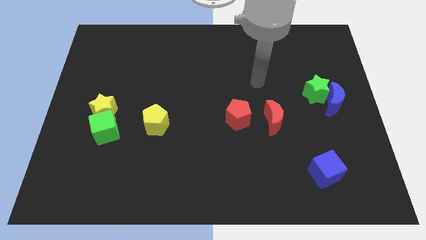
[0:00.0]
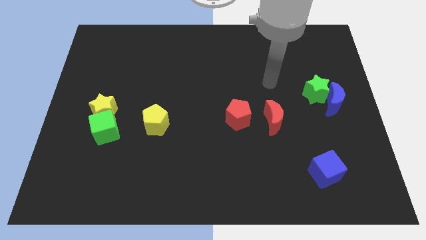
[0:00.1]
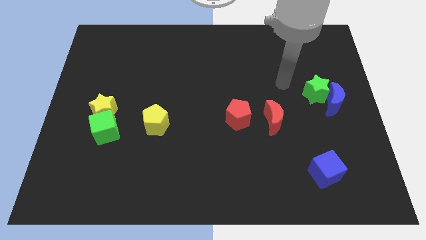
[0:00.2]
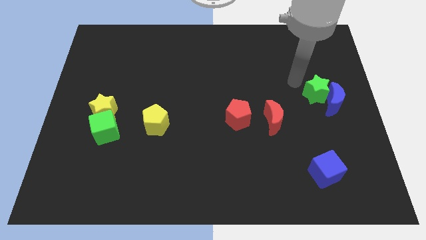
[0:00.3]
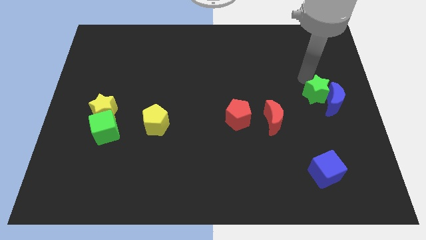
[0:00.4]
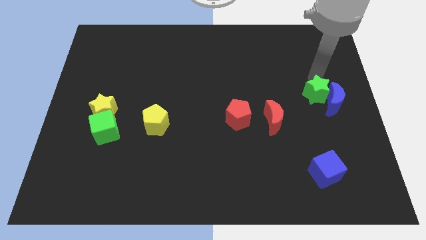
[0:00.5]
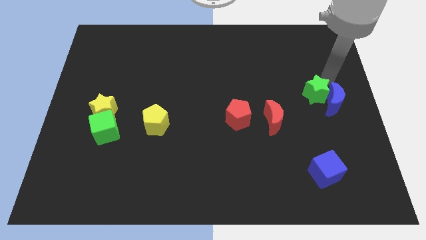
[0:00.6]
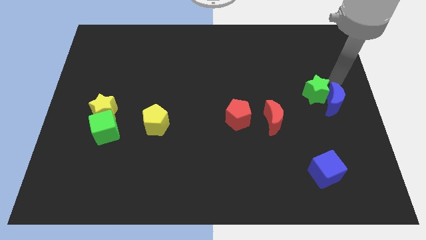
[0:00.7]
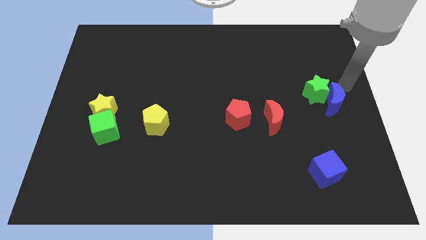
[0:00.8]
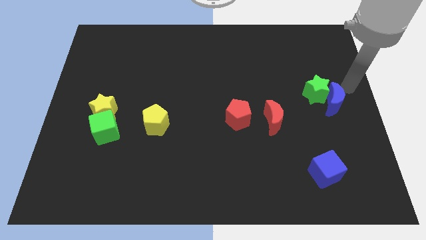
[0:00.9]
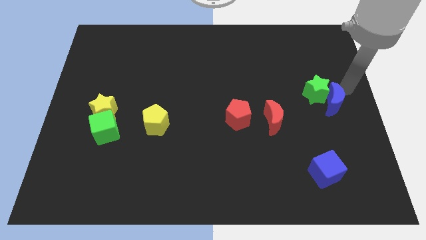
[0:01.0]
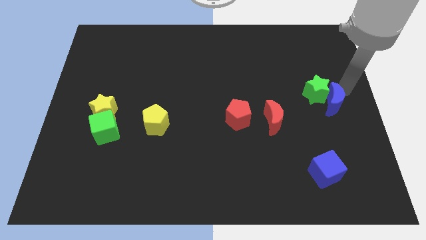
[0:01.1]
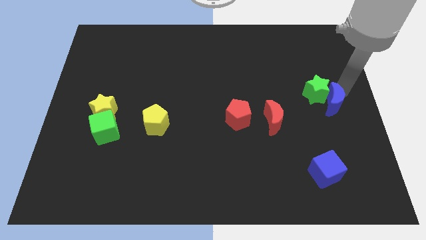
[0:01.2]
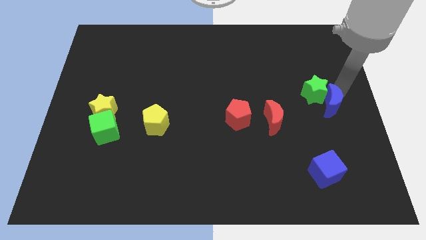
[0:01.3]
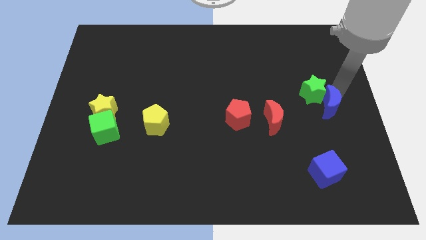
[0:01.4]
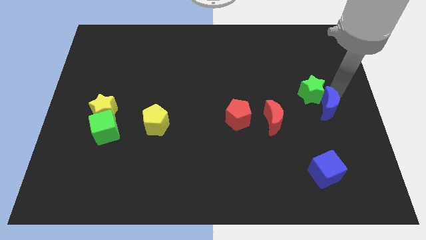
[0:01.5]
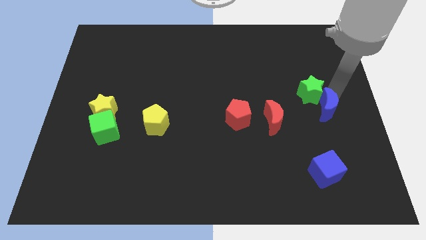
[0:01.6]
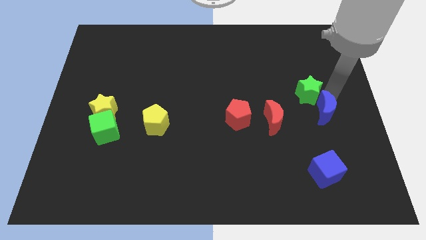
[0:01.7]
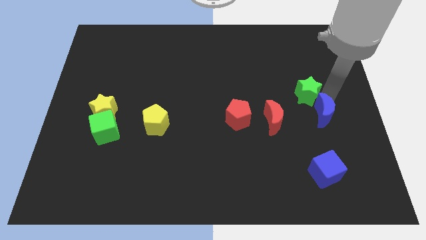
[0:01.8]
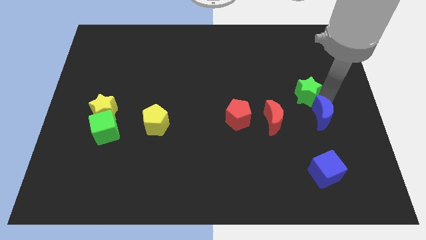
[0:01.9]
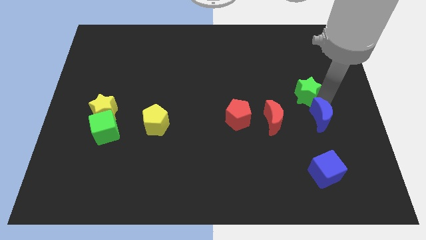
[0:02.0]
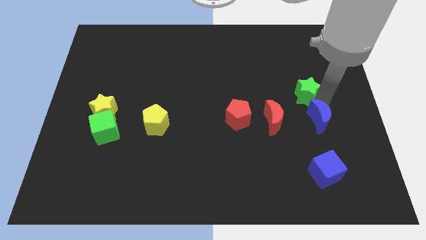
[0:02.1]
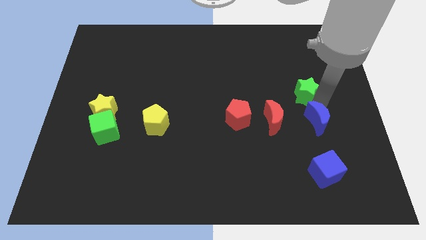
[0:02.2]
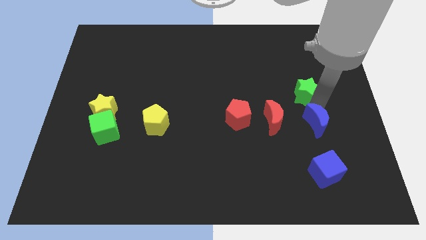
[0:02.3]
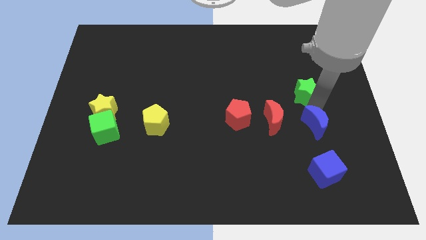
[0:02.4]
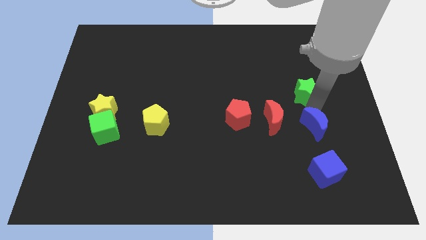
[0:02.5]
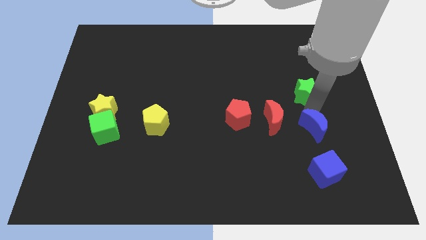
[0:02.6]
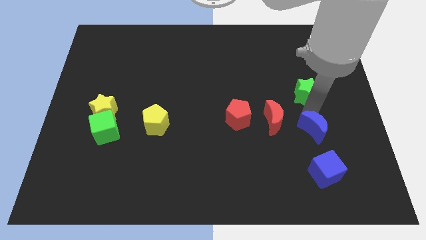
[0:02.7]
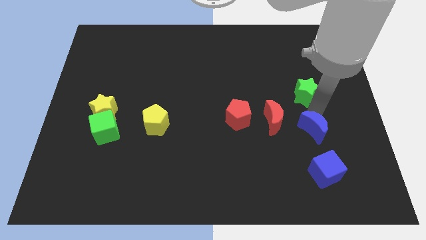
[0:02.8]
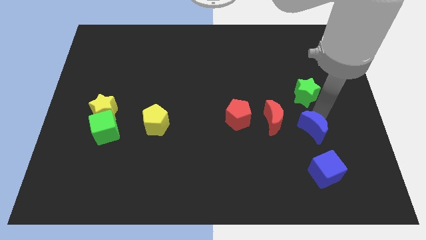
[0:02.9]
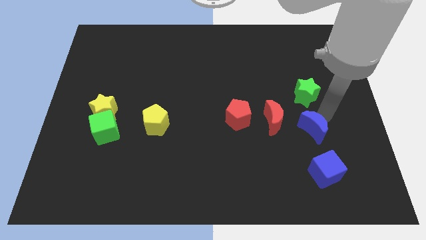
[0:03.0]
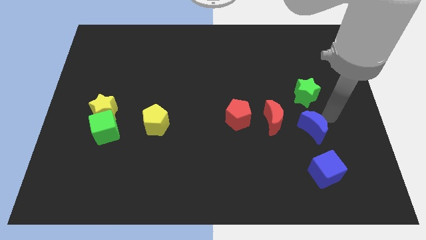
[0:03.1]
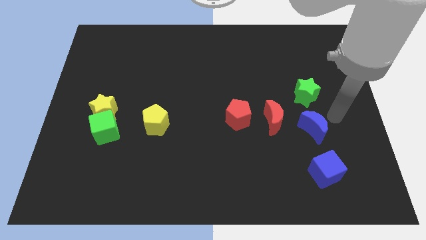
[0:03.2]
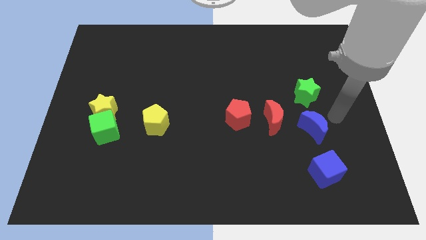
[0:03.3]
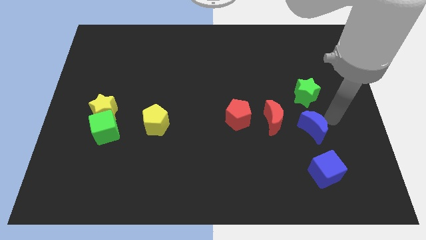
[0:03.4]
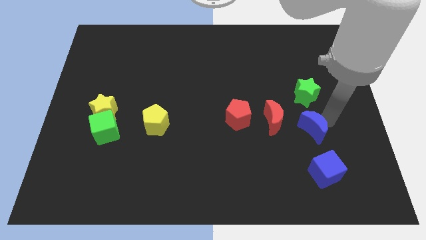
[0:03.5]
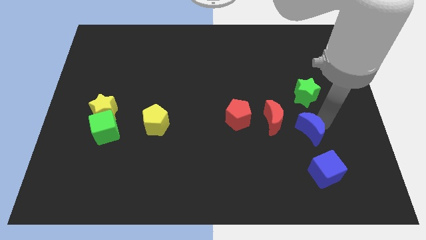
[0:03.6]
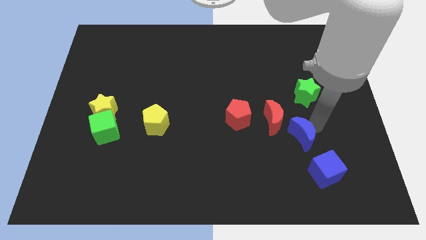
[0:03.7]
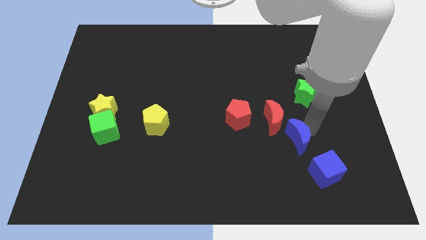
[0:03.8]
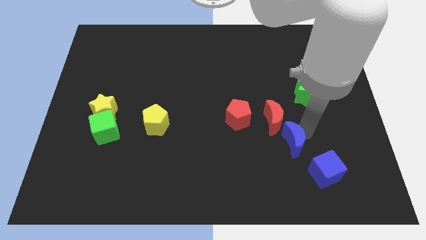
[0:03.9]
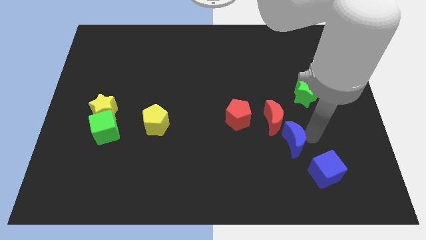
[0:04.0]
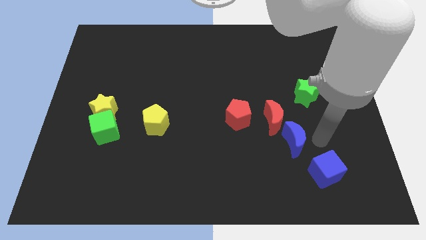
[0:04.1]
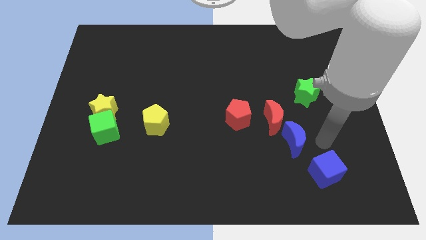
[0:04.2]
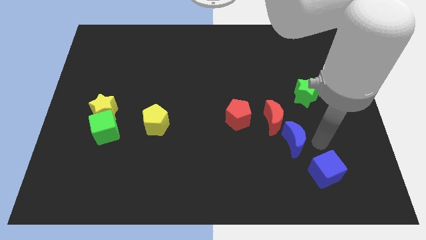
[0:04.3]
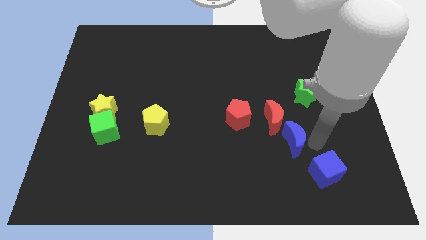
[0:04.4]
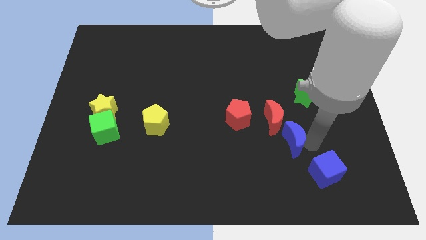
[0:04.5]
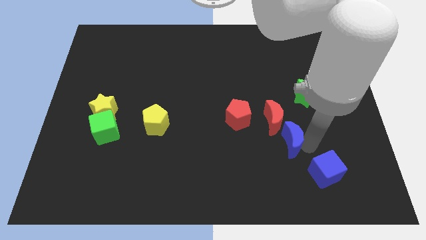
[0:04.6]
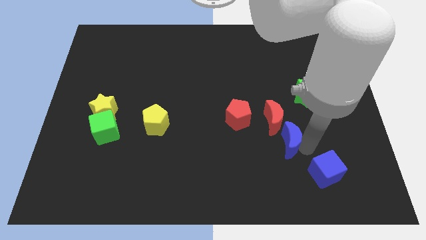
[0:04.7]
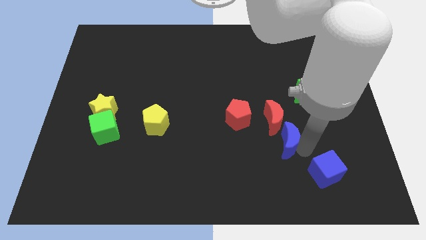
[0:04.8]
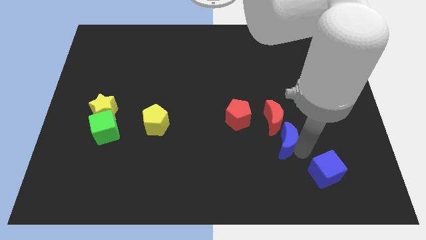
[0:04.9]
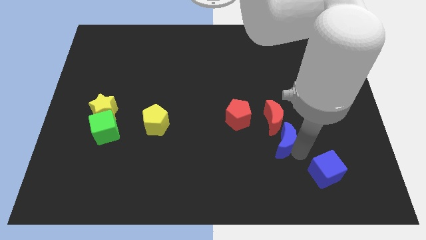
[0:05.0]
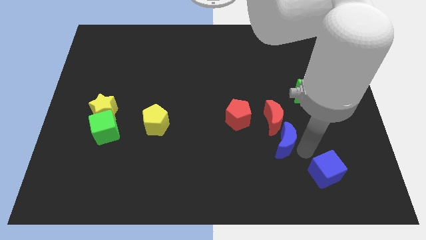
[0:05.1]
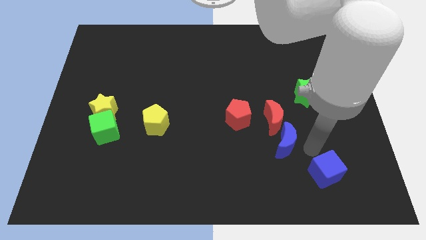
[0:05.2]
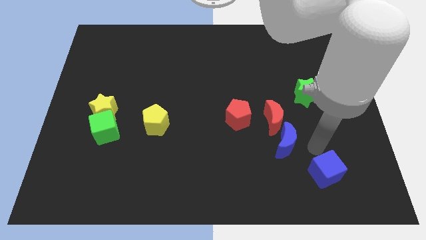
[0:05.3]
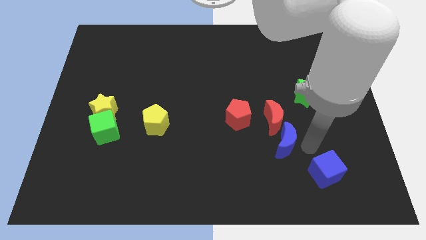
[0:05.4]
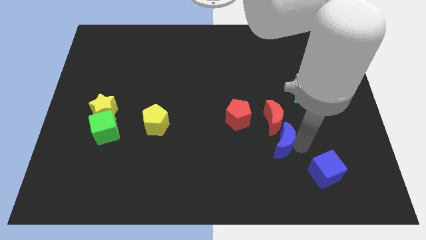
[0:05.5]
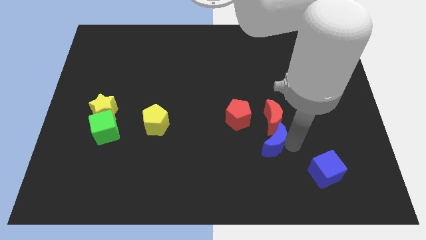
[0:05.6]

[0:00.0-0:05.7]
slide the blue moon to the bottom left side of the red moon

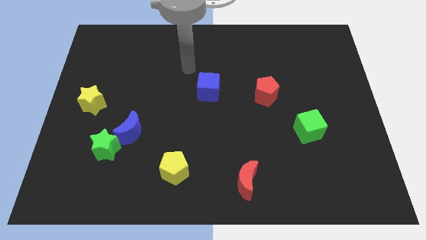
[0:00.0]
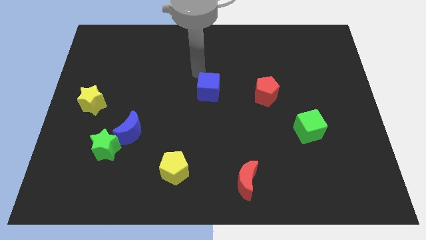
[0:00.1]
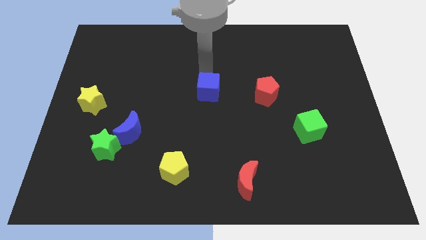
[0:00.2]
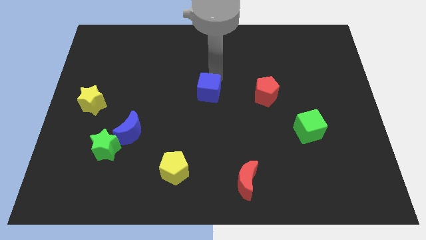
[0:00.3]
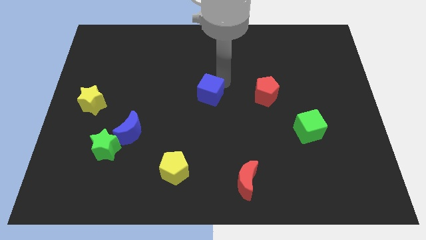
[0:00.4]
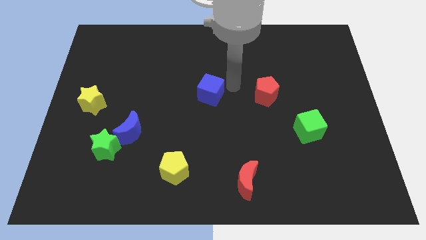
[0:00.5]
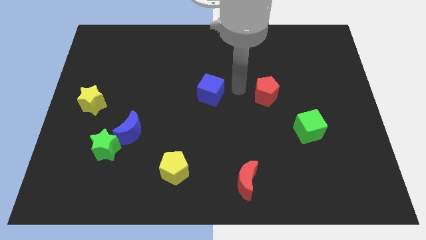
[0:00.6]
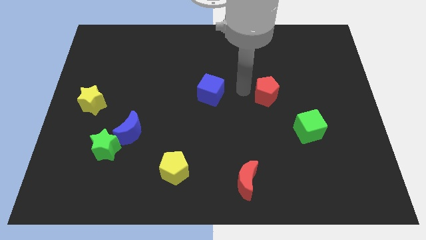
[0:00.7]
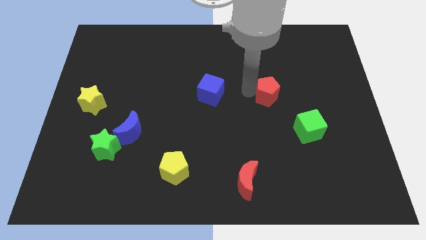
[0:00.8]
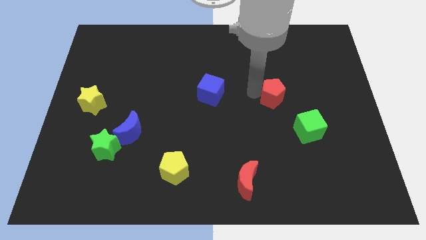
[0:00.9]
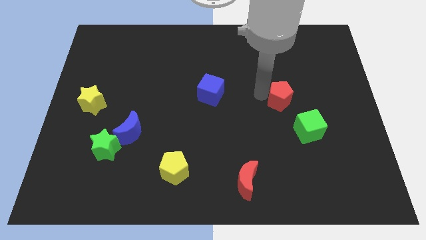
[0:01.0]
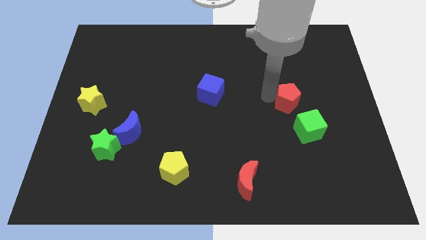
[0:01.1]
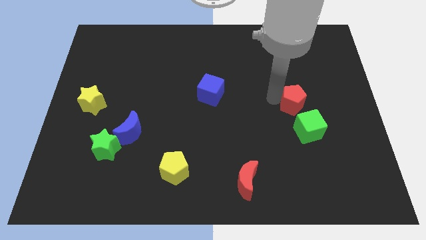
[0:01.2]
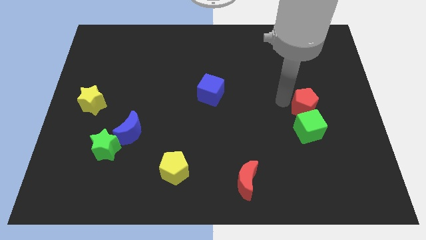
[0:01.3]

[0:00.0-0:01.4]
slide the red pentagon to the top right side of the green cube
